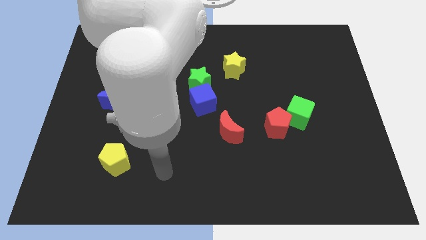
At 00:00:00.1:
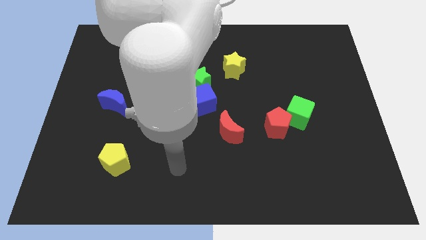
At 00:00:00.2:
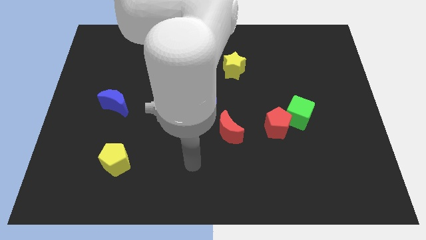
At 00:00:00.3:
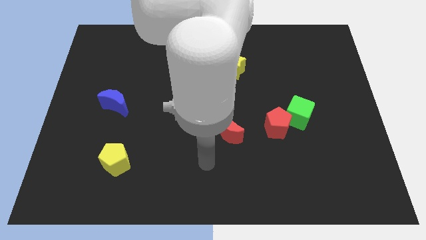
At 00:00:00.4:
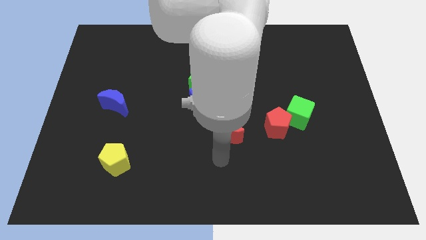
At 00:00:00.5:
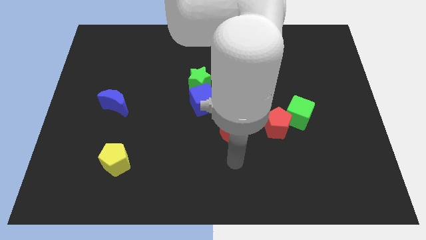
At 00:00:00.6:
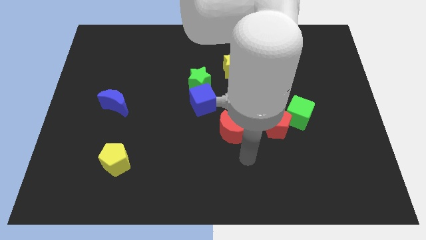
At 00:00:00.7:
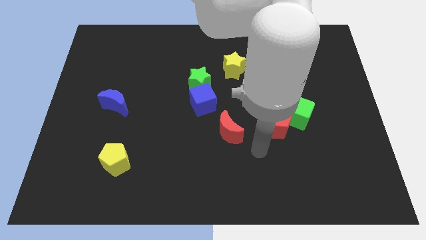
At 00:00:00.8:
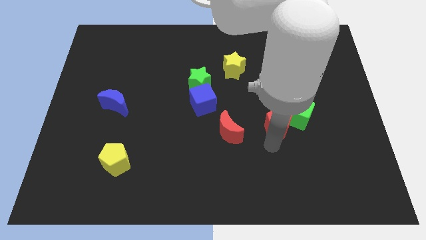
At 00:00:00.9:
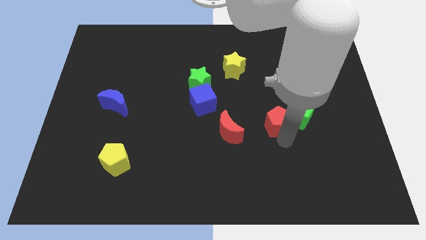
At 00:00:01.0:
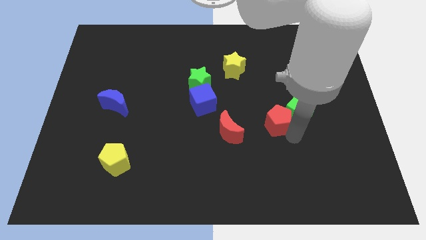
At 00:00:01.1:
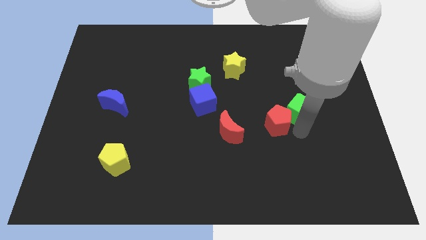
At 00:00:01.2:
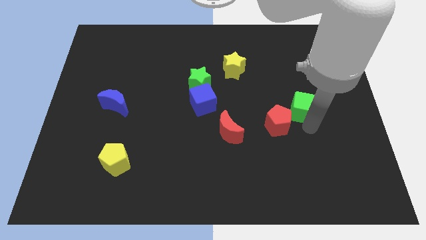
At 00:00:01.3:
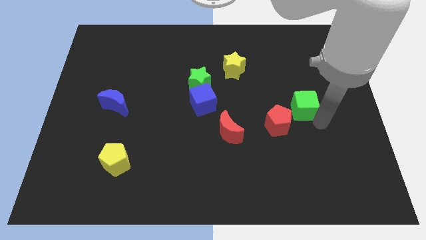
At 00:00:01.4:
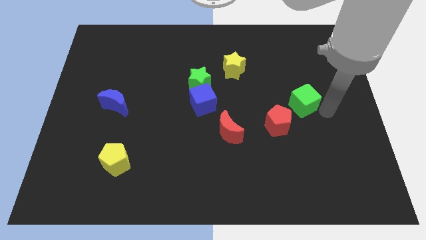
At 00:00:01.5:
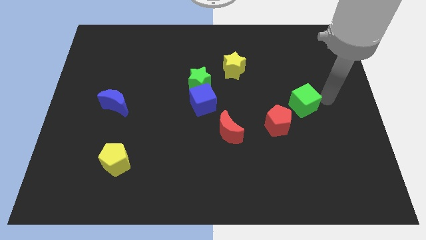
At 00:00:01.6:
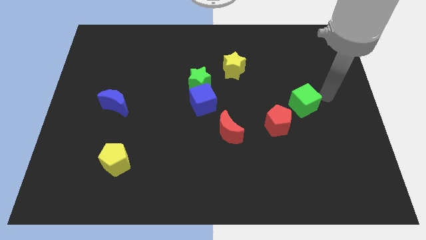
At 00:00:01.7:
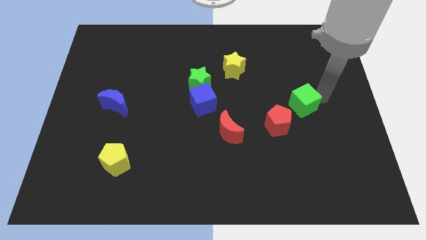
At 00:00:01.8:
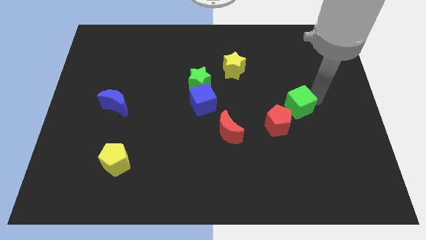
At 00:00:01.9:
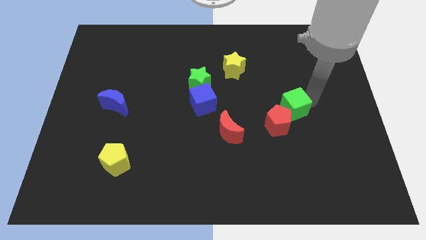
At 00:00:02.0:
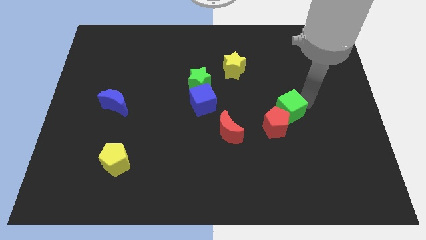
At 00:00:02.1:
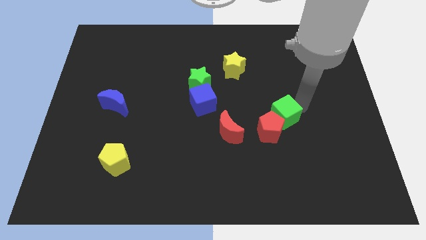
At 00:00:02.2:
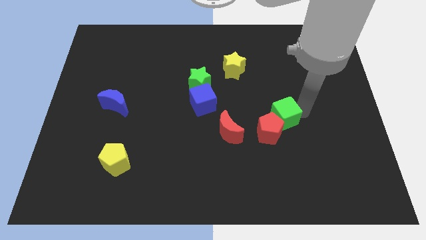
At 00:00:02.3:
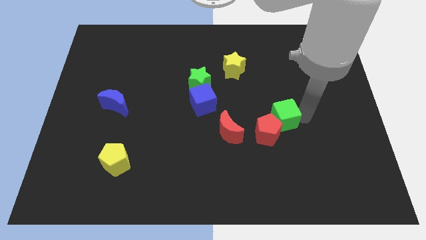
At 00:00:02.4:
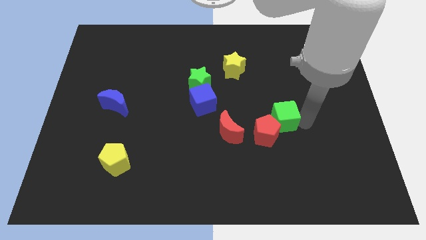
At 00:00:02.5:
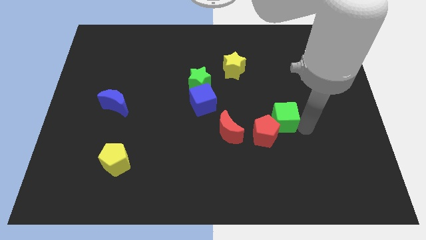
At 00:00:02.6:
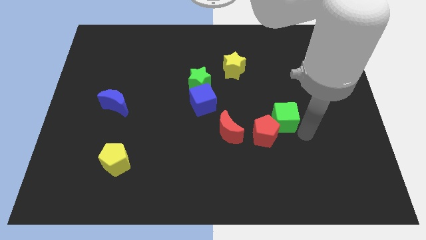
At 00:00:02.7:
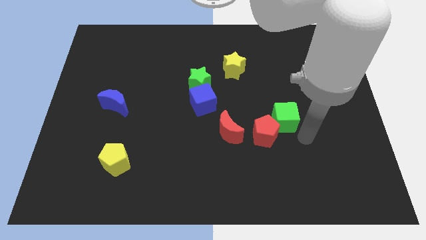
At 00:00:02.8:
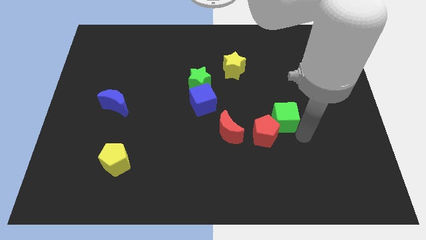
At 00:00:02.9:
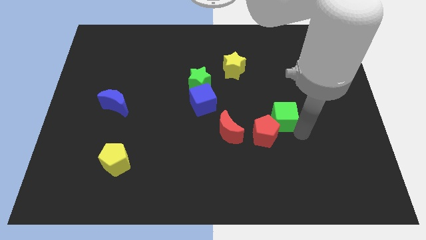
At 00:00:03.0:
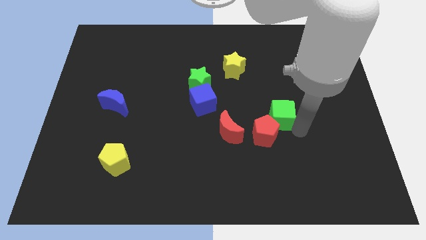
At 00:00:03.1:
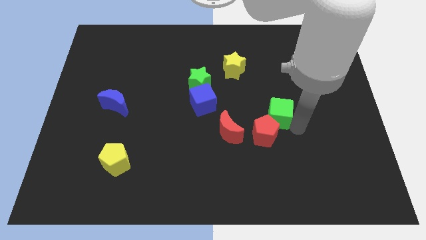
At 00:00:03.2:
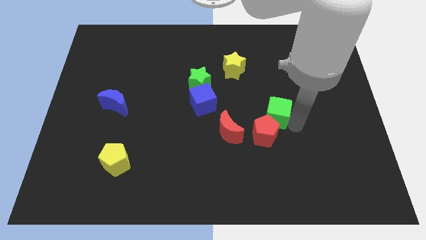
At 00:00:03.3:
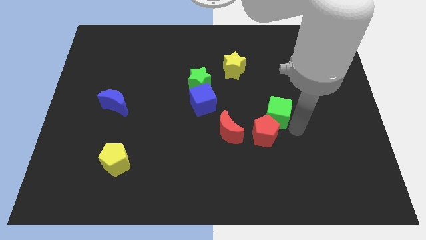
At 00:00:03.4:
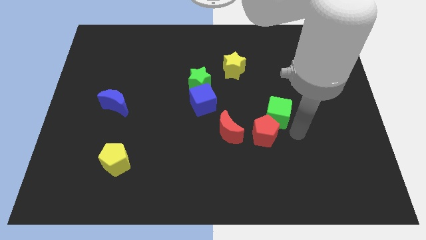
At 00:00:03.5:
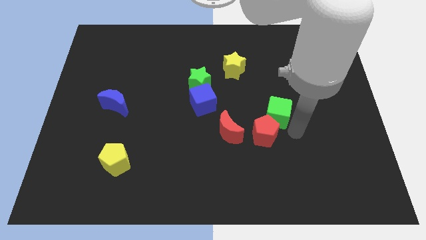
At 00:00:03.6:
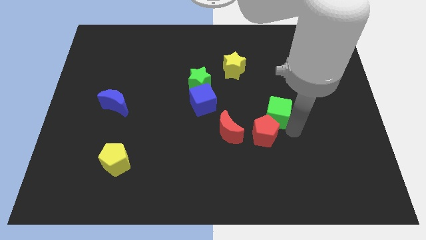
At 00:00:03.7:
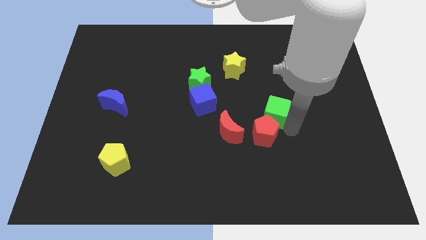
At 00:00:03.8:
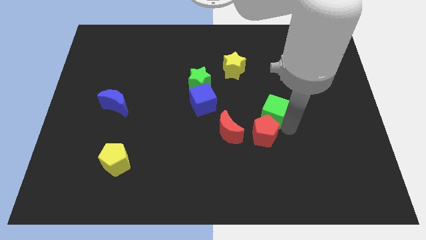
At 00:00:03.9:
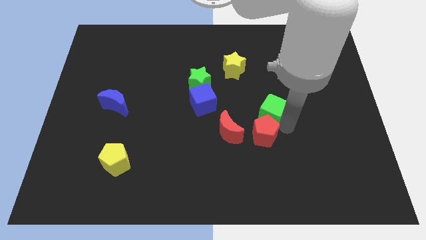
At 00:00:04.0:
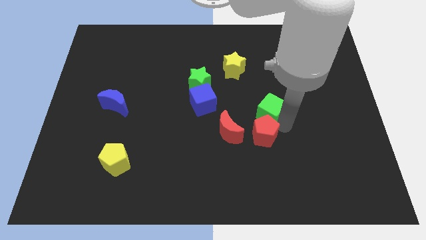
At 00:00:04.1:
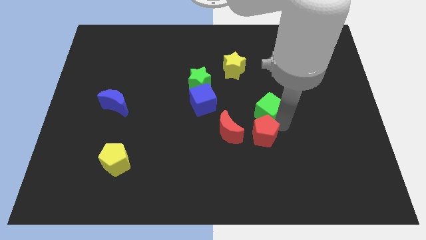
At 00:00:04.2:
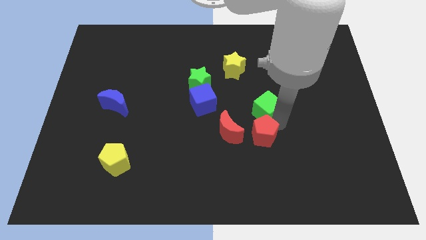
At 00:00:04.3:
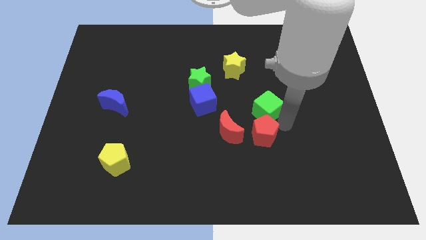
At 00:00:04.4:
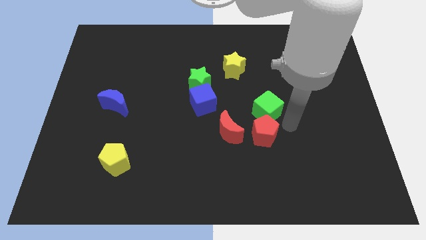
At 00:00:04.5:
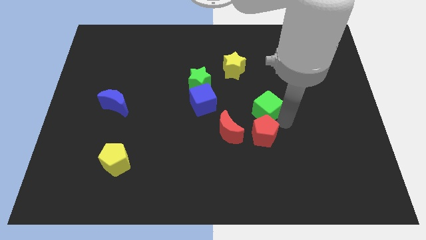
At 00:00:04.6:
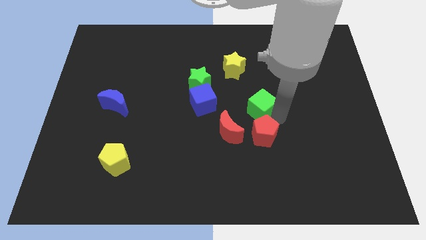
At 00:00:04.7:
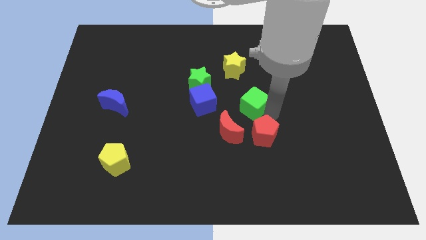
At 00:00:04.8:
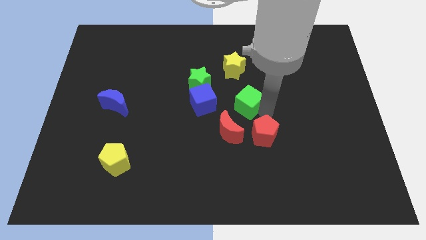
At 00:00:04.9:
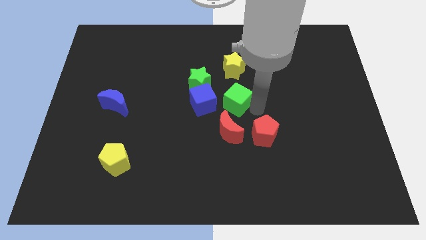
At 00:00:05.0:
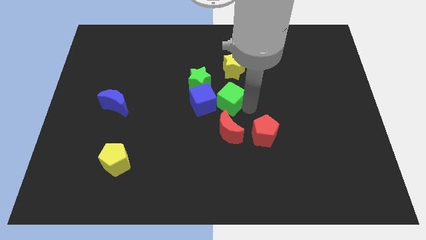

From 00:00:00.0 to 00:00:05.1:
push the green cube to the top right side of the blue cube

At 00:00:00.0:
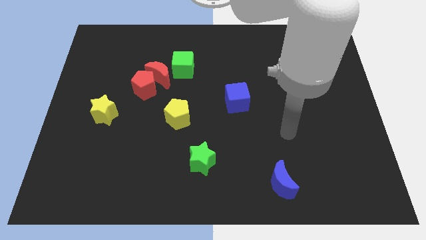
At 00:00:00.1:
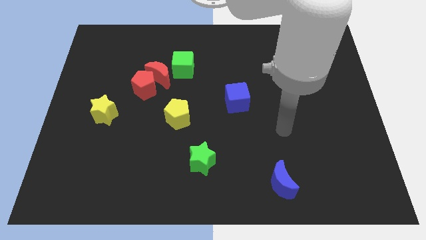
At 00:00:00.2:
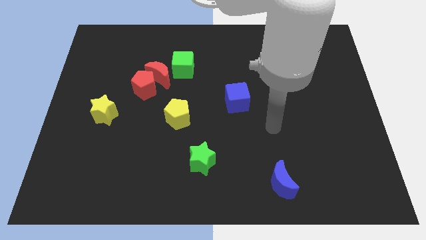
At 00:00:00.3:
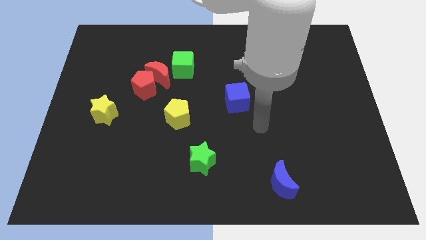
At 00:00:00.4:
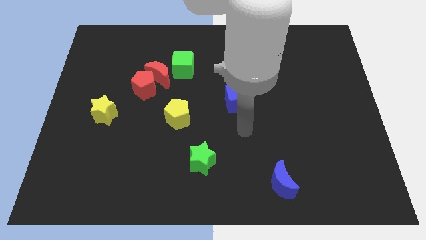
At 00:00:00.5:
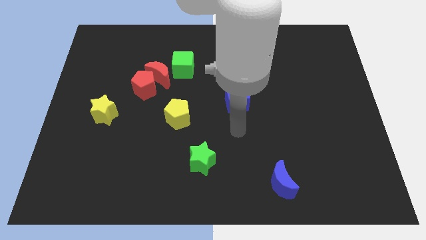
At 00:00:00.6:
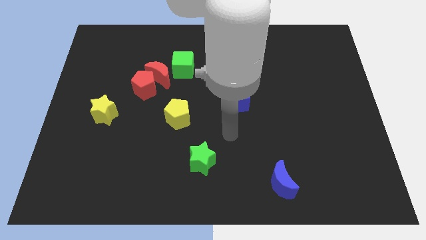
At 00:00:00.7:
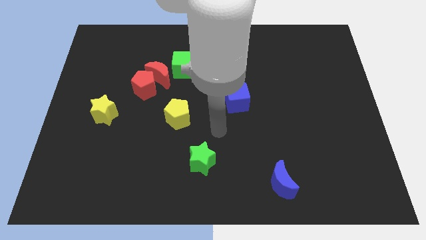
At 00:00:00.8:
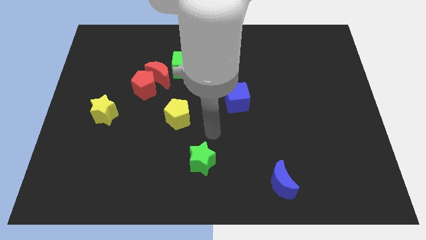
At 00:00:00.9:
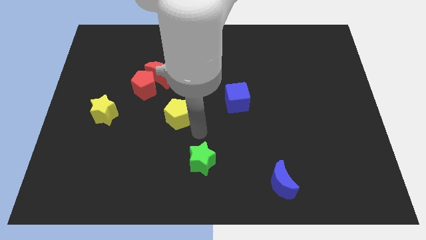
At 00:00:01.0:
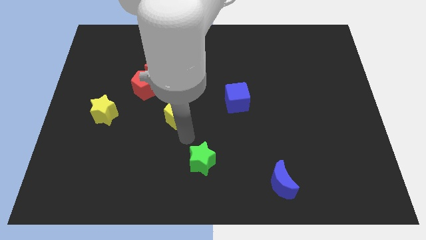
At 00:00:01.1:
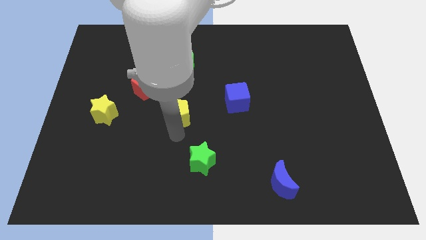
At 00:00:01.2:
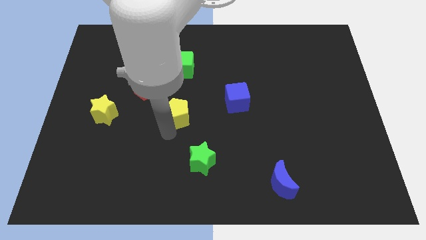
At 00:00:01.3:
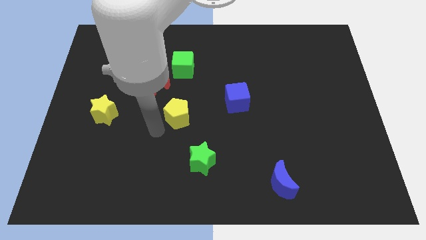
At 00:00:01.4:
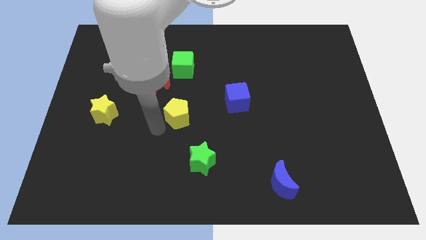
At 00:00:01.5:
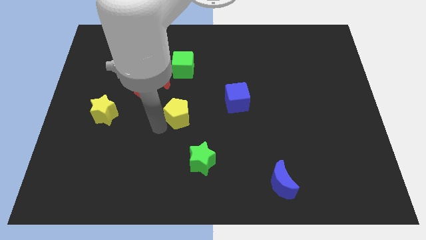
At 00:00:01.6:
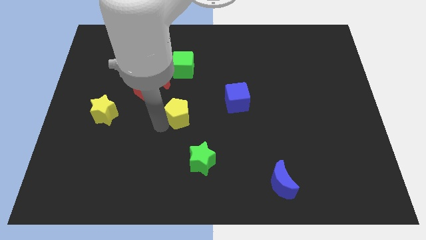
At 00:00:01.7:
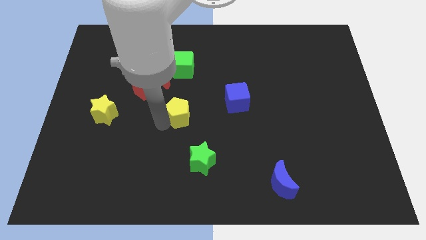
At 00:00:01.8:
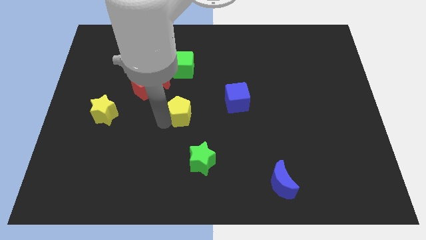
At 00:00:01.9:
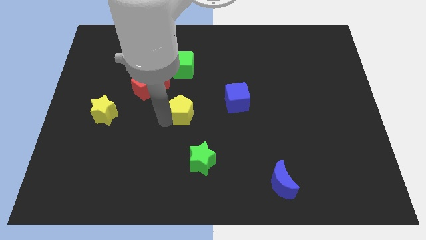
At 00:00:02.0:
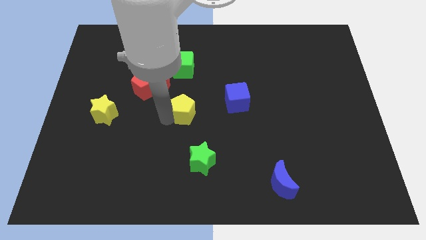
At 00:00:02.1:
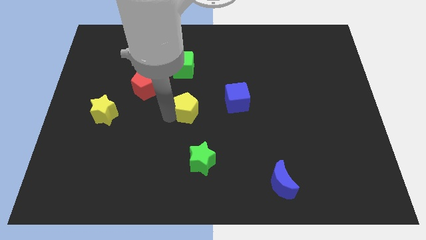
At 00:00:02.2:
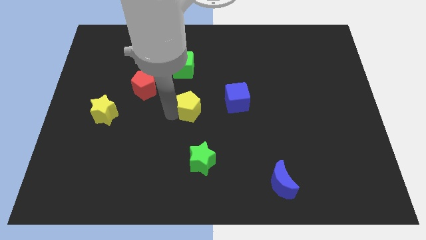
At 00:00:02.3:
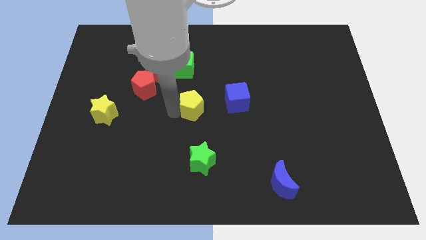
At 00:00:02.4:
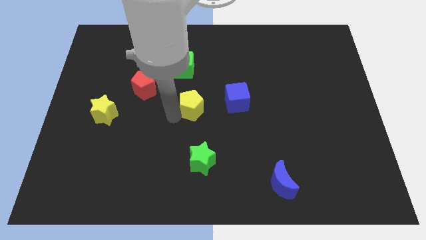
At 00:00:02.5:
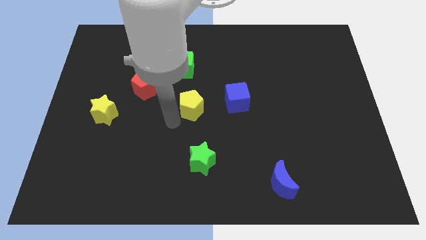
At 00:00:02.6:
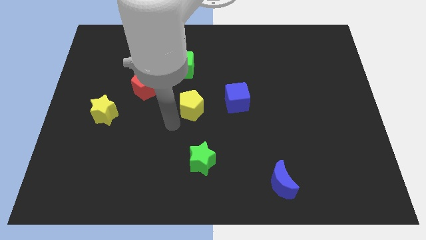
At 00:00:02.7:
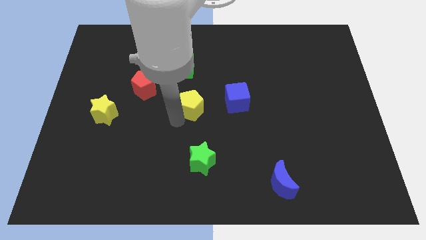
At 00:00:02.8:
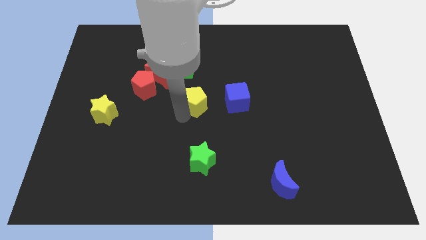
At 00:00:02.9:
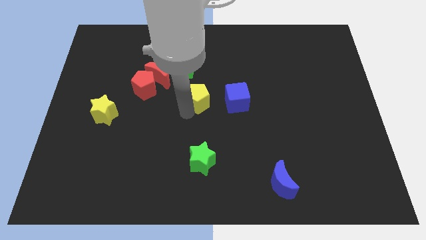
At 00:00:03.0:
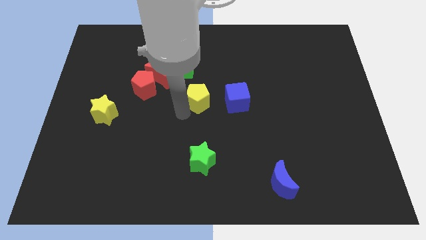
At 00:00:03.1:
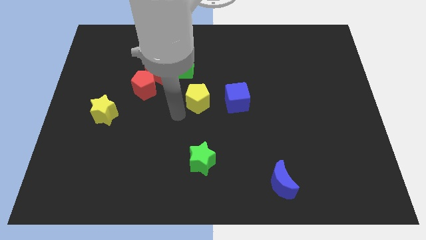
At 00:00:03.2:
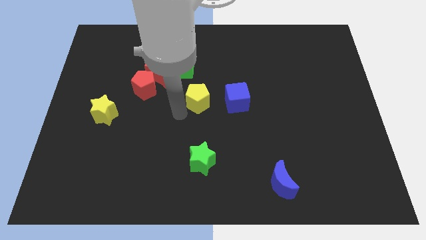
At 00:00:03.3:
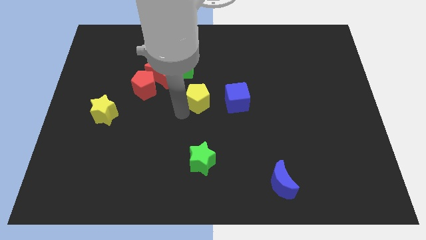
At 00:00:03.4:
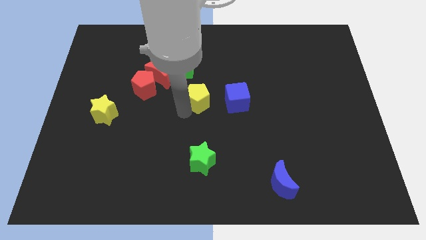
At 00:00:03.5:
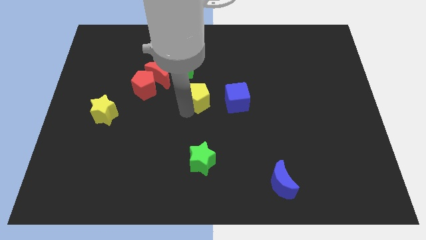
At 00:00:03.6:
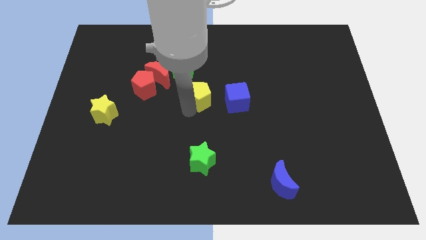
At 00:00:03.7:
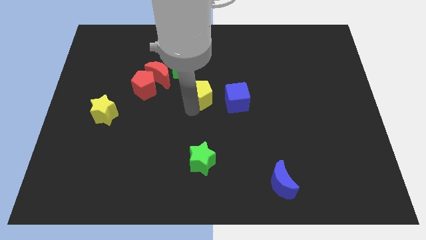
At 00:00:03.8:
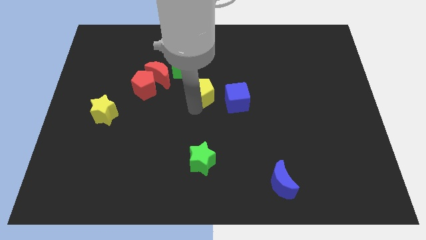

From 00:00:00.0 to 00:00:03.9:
slide the yellow pentagon to the top left of the blue cube
